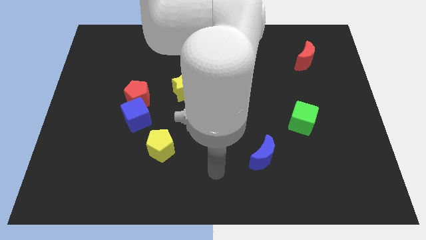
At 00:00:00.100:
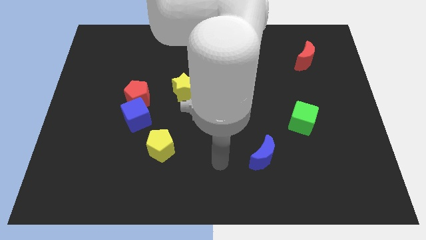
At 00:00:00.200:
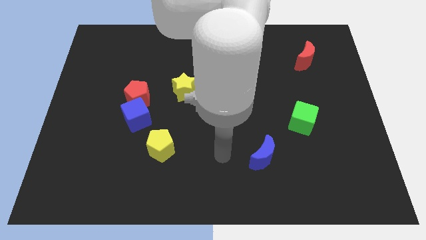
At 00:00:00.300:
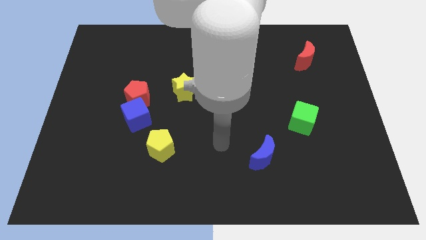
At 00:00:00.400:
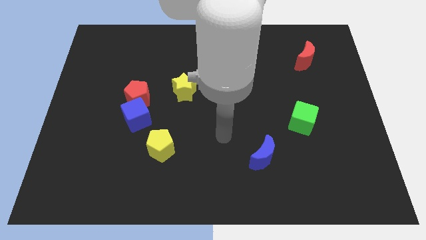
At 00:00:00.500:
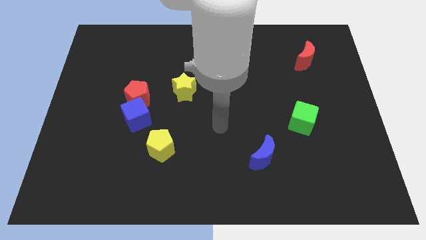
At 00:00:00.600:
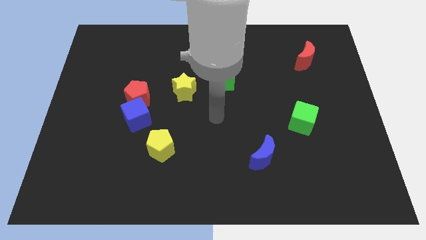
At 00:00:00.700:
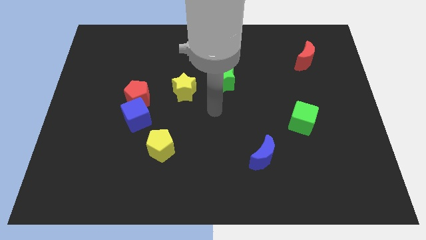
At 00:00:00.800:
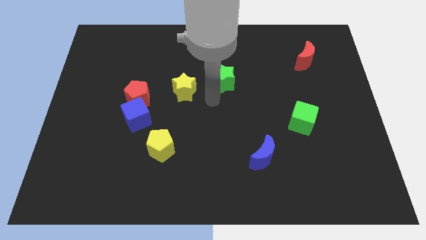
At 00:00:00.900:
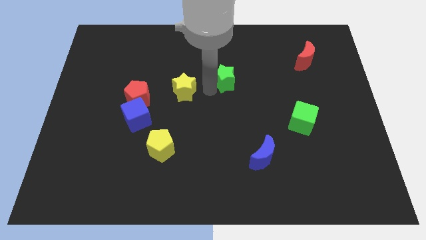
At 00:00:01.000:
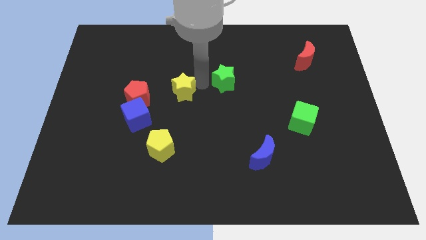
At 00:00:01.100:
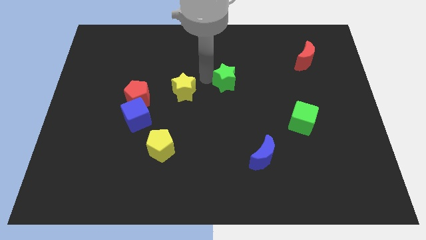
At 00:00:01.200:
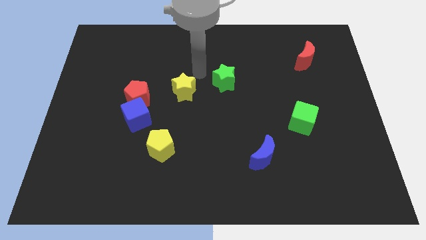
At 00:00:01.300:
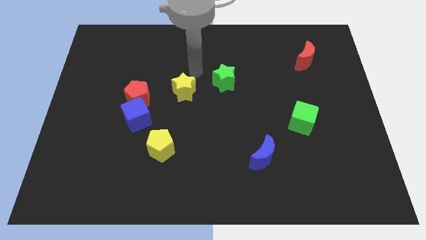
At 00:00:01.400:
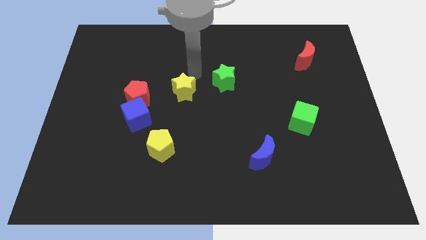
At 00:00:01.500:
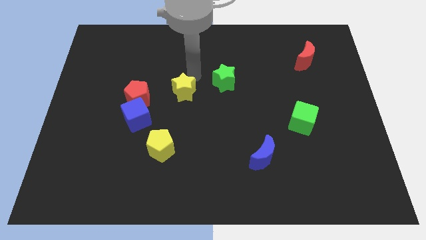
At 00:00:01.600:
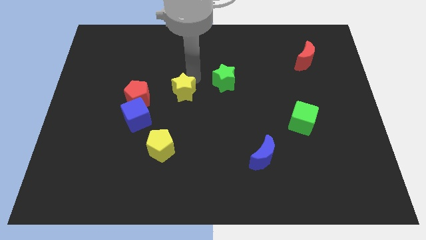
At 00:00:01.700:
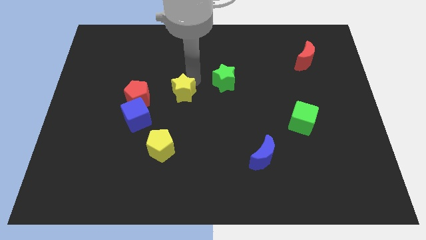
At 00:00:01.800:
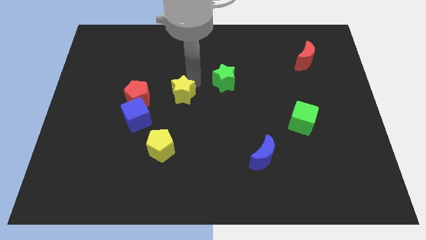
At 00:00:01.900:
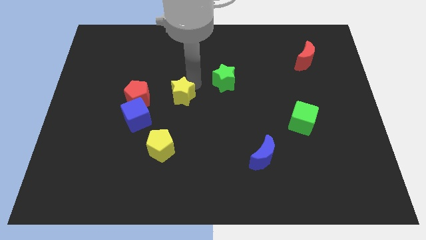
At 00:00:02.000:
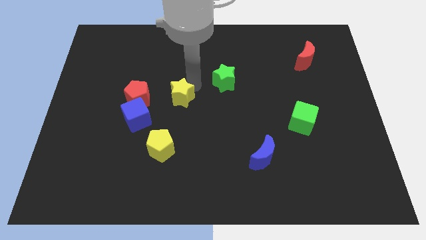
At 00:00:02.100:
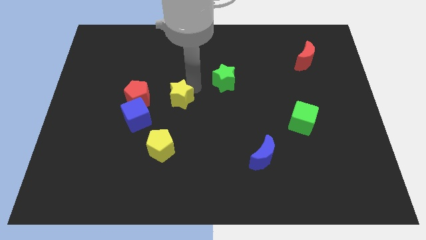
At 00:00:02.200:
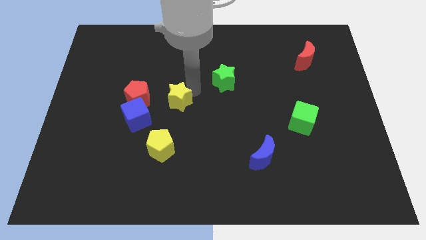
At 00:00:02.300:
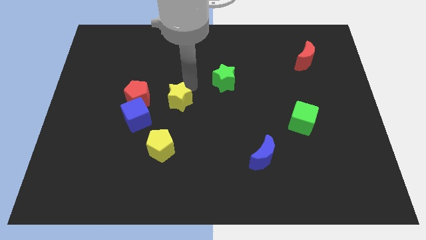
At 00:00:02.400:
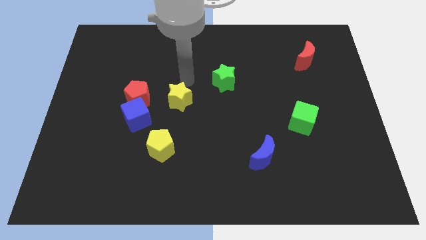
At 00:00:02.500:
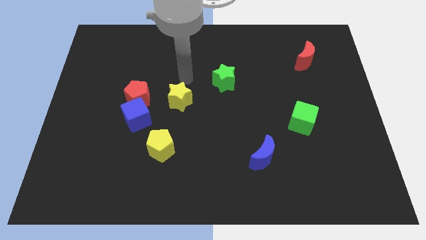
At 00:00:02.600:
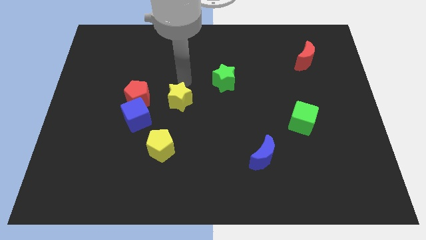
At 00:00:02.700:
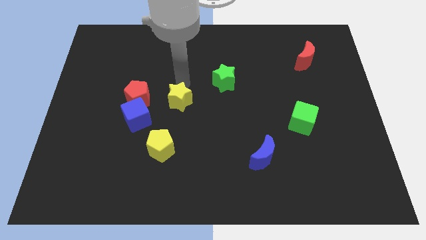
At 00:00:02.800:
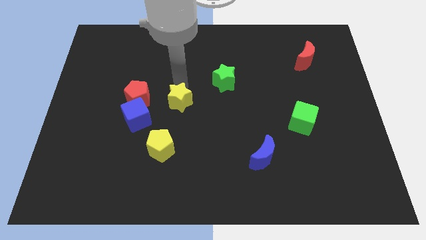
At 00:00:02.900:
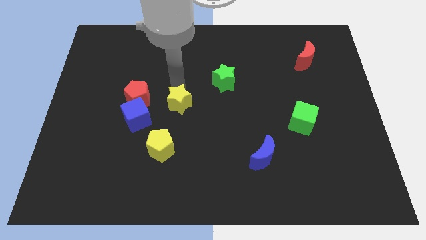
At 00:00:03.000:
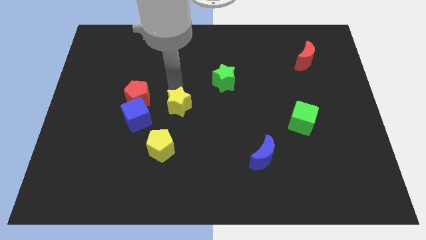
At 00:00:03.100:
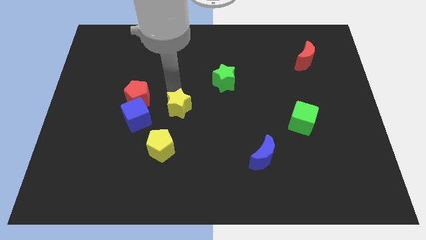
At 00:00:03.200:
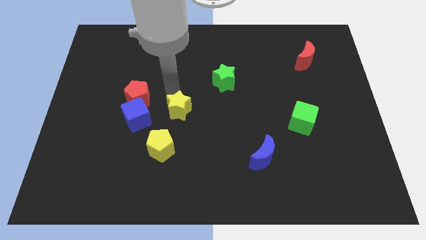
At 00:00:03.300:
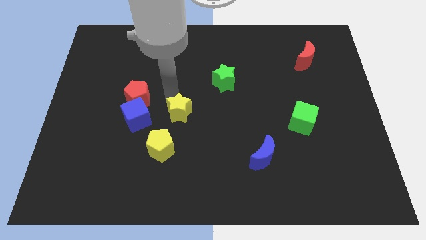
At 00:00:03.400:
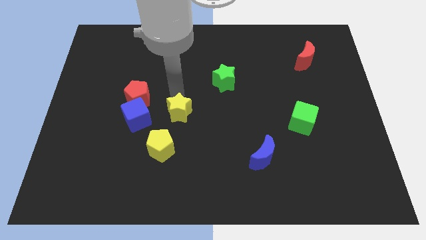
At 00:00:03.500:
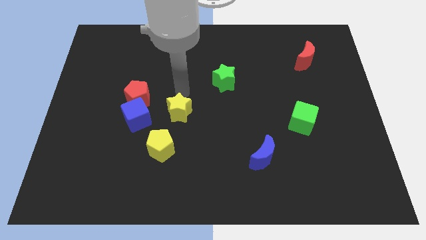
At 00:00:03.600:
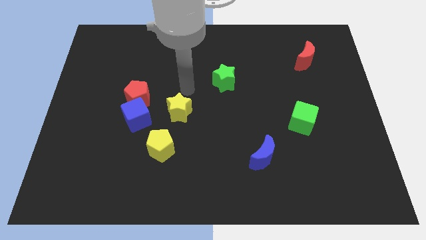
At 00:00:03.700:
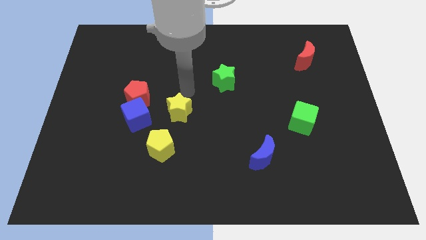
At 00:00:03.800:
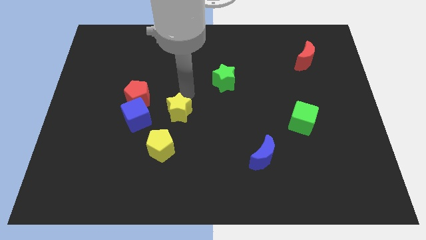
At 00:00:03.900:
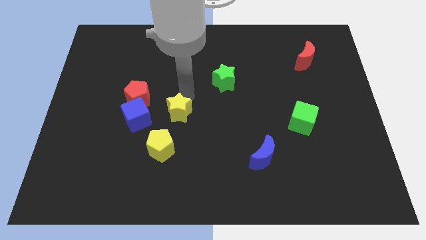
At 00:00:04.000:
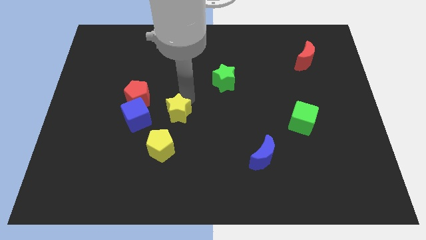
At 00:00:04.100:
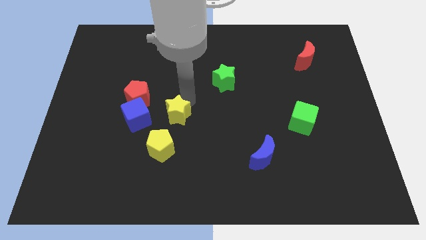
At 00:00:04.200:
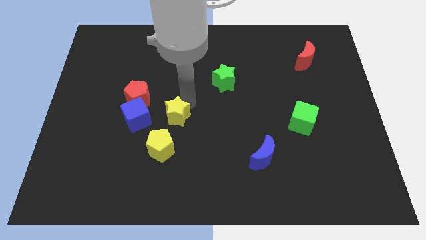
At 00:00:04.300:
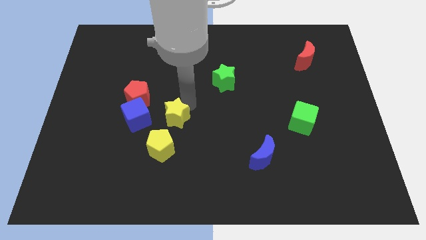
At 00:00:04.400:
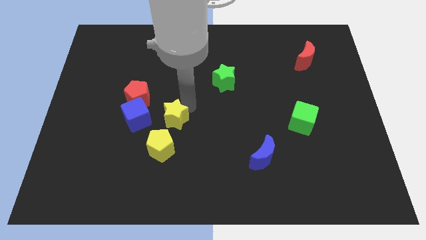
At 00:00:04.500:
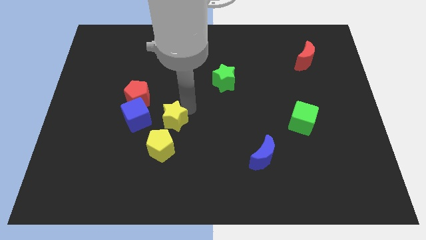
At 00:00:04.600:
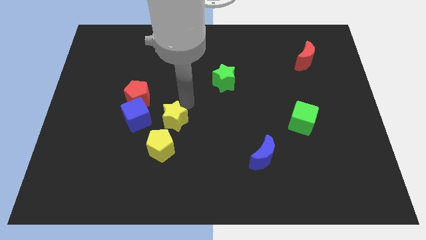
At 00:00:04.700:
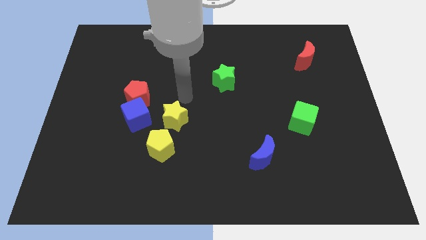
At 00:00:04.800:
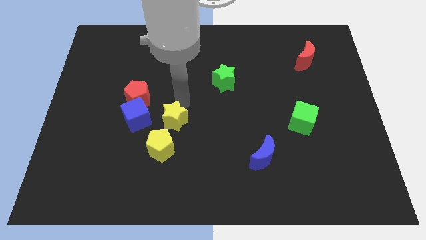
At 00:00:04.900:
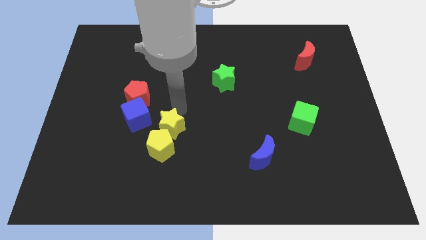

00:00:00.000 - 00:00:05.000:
slide the yellow star next to the yellow pentagon

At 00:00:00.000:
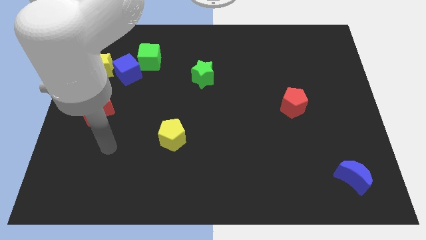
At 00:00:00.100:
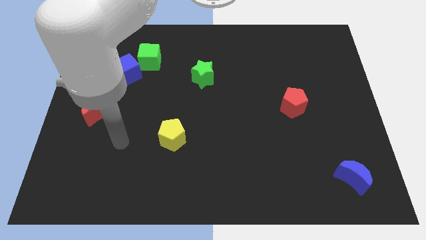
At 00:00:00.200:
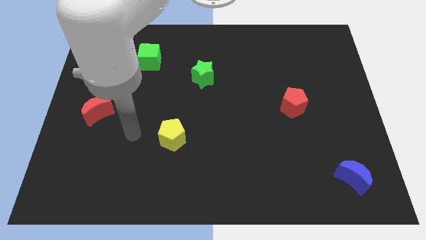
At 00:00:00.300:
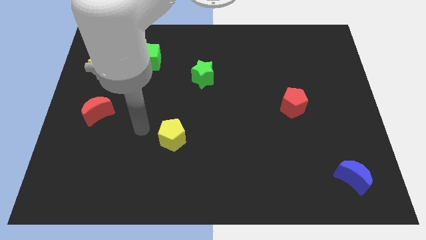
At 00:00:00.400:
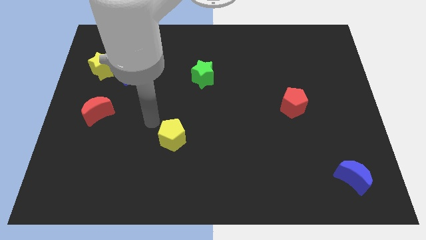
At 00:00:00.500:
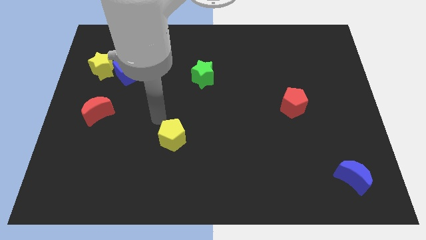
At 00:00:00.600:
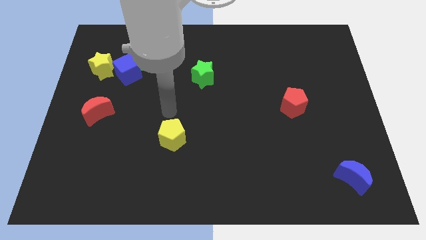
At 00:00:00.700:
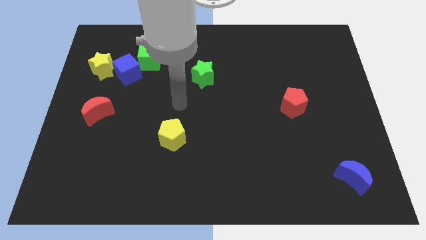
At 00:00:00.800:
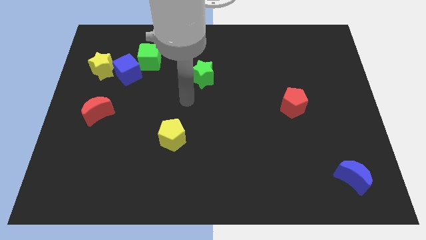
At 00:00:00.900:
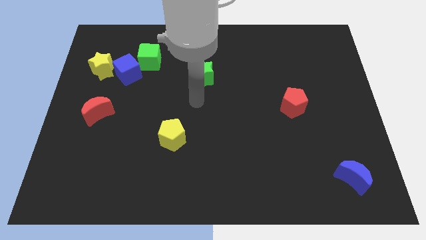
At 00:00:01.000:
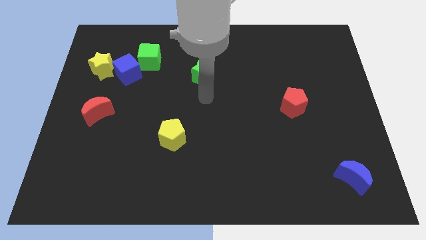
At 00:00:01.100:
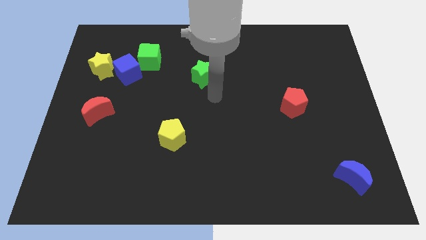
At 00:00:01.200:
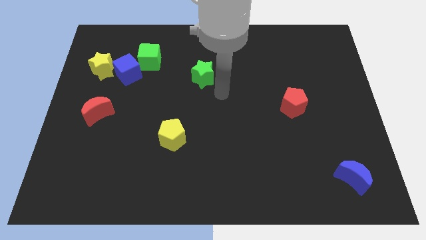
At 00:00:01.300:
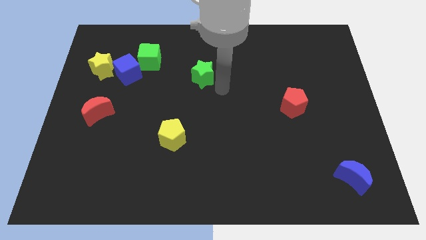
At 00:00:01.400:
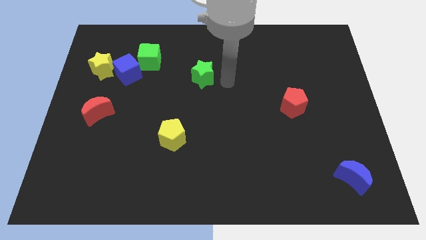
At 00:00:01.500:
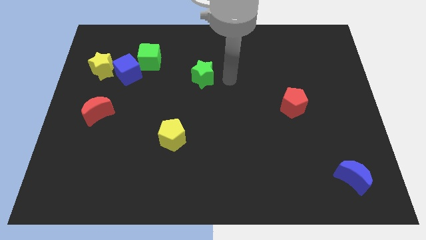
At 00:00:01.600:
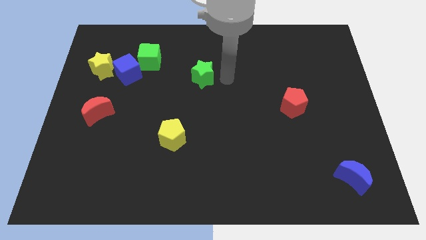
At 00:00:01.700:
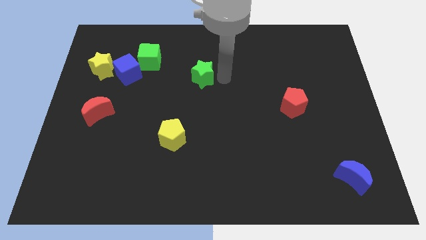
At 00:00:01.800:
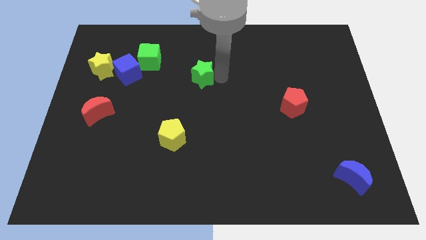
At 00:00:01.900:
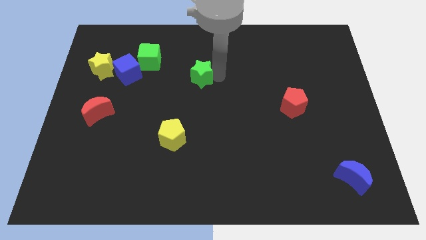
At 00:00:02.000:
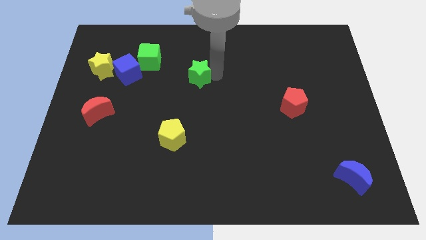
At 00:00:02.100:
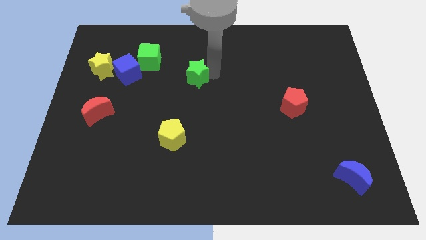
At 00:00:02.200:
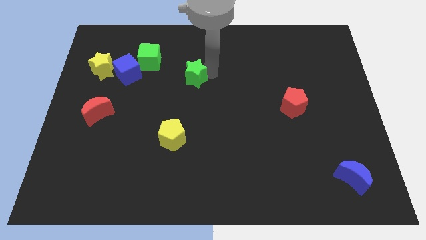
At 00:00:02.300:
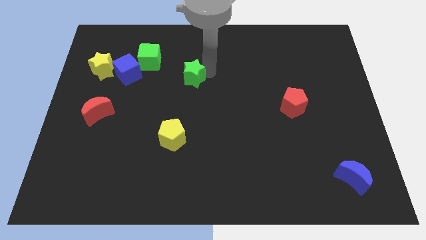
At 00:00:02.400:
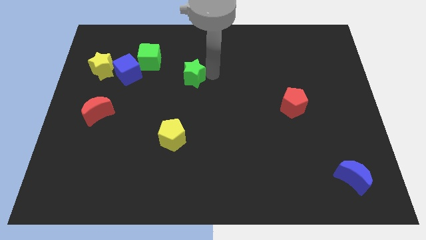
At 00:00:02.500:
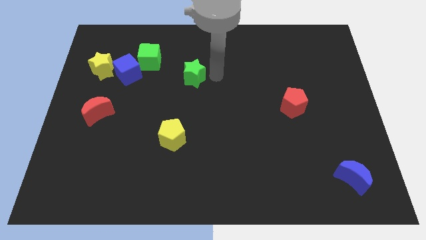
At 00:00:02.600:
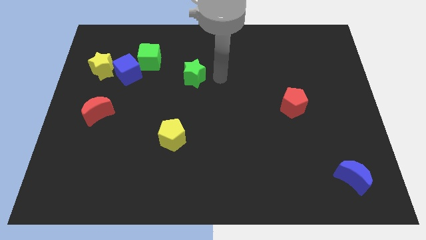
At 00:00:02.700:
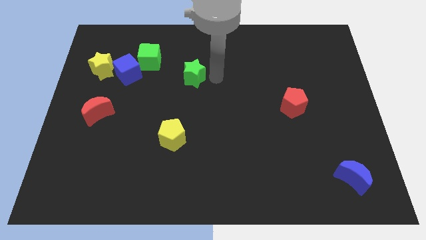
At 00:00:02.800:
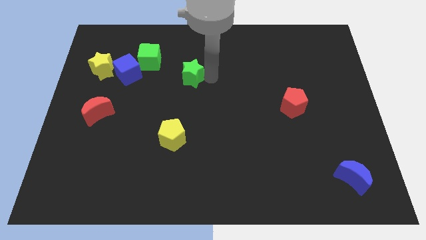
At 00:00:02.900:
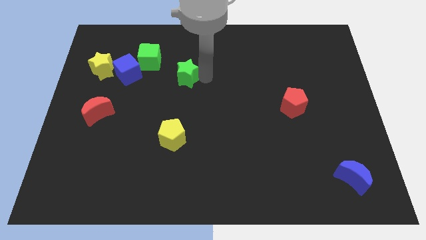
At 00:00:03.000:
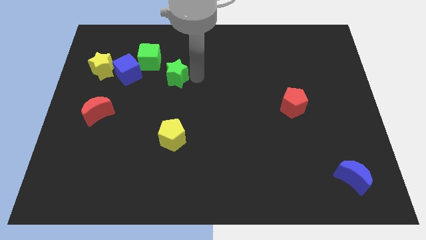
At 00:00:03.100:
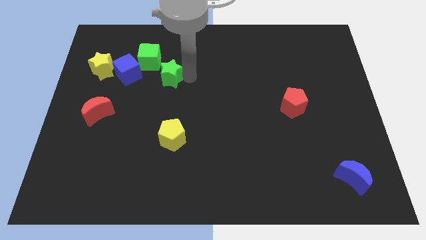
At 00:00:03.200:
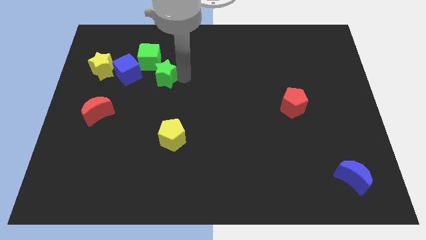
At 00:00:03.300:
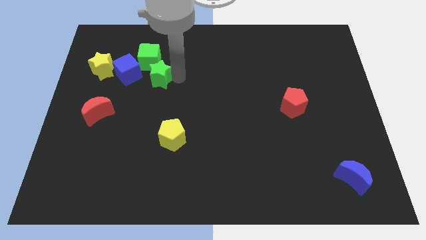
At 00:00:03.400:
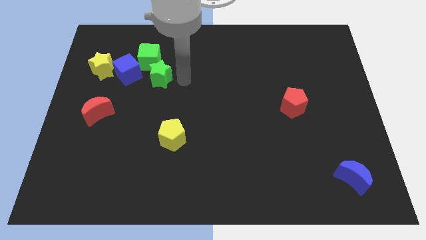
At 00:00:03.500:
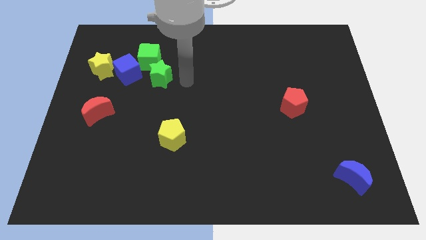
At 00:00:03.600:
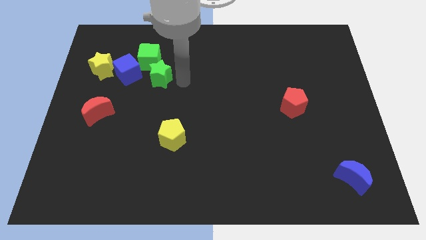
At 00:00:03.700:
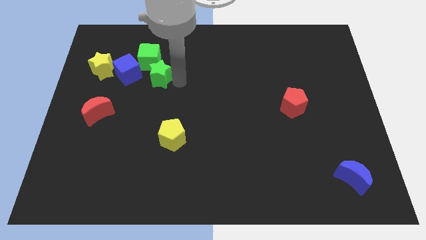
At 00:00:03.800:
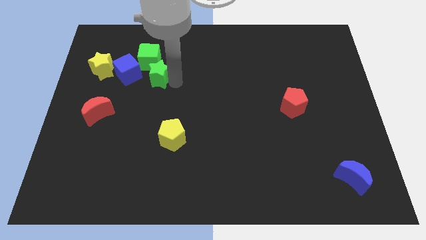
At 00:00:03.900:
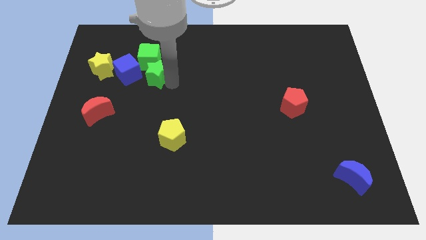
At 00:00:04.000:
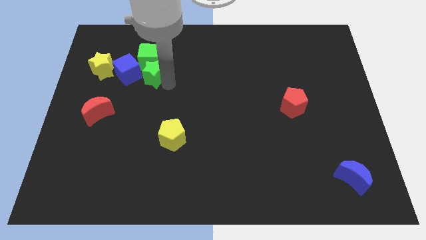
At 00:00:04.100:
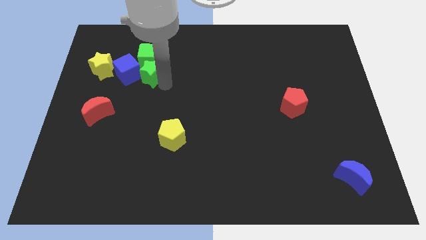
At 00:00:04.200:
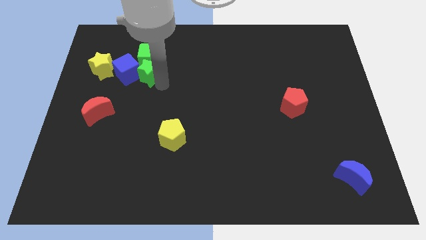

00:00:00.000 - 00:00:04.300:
push the green star close to the blue cube
